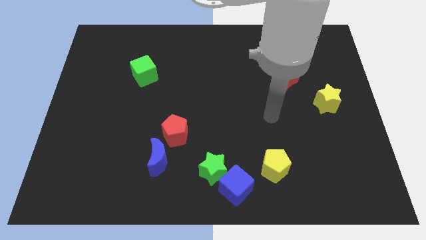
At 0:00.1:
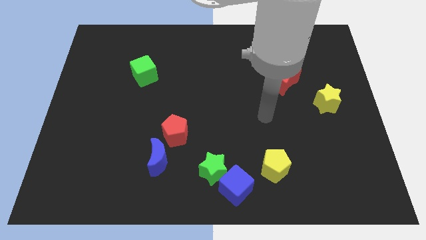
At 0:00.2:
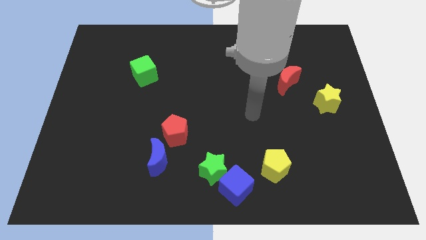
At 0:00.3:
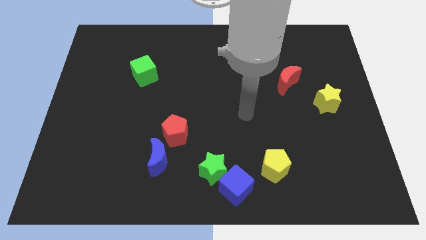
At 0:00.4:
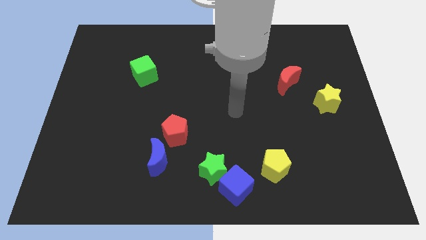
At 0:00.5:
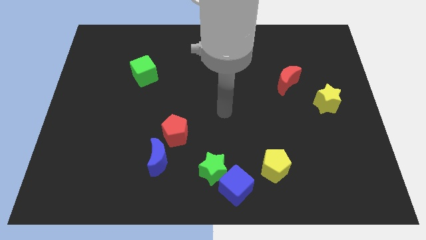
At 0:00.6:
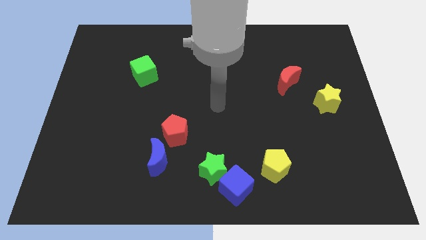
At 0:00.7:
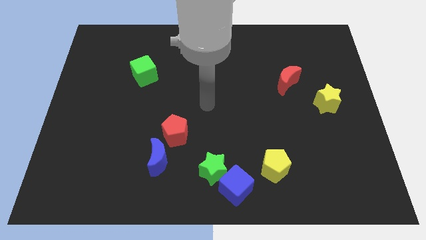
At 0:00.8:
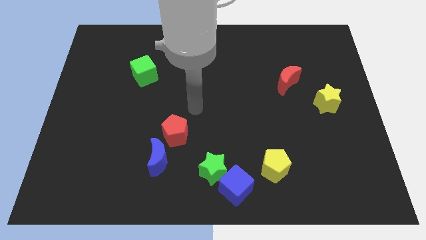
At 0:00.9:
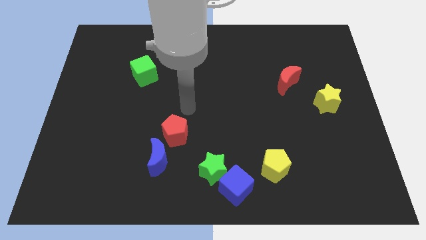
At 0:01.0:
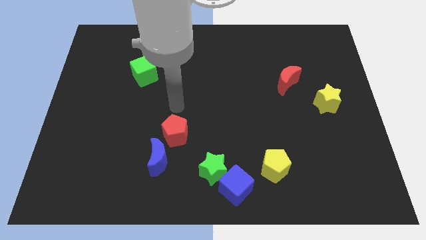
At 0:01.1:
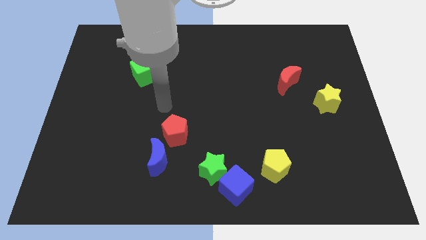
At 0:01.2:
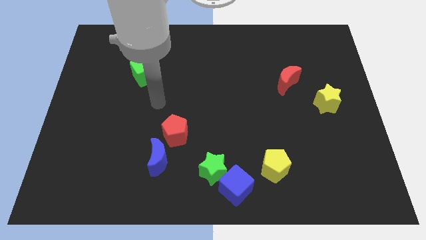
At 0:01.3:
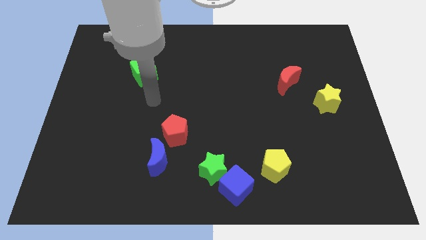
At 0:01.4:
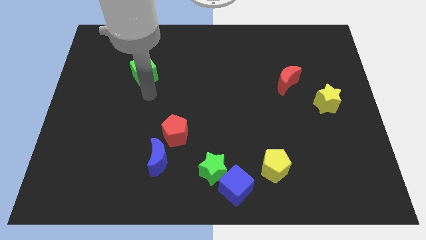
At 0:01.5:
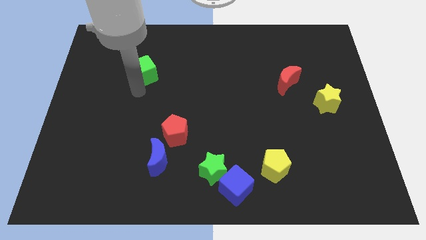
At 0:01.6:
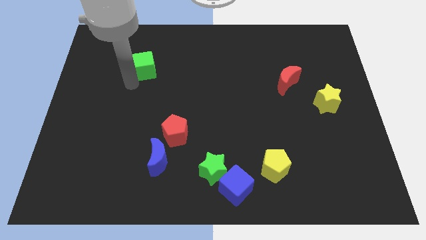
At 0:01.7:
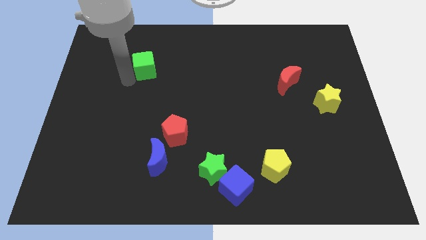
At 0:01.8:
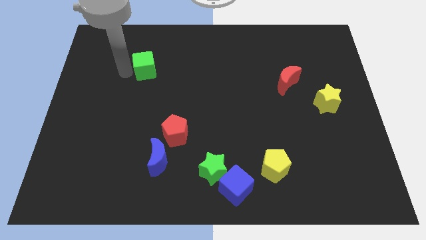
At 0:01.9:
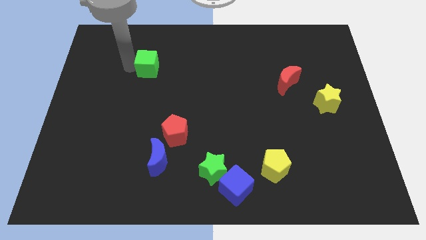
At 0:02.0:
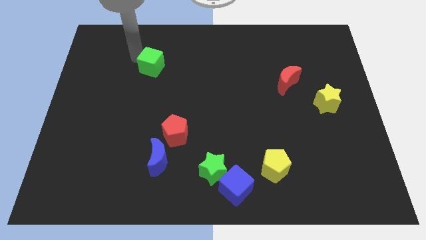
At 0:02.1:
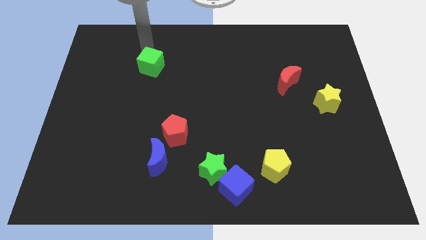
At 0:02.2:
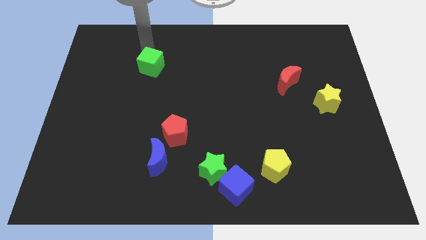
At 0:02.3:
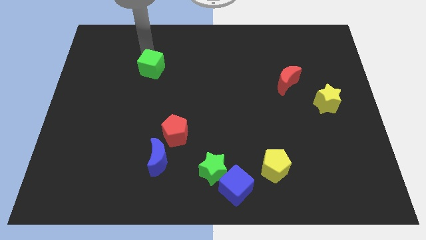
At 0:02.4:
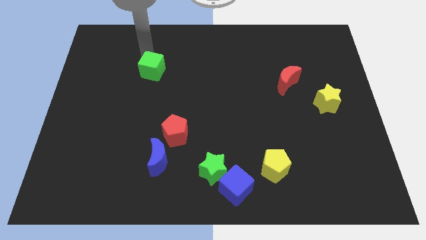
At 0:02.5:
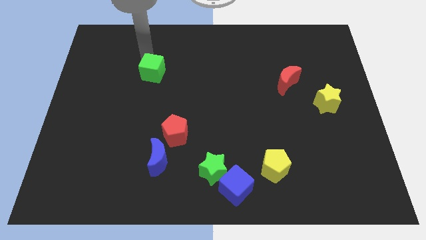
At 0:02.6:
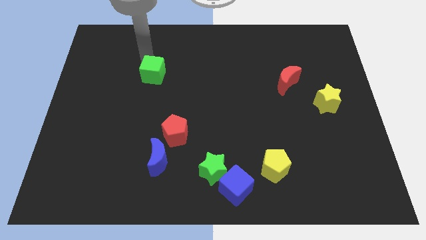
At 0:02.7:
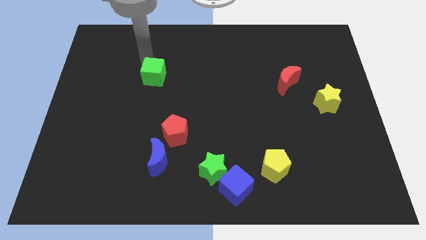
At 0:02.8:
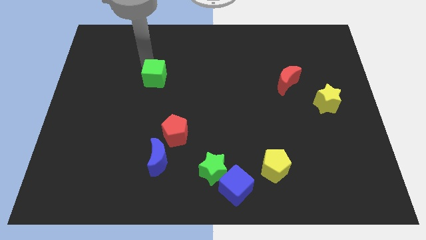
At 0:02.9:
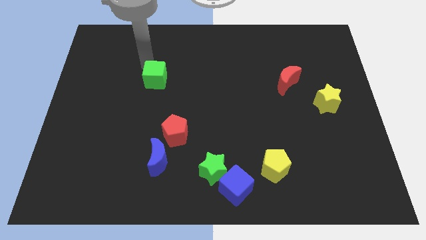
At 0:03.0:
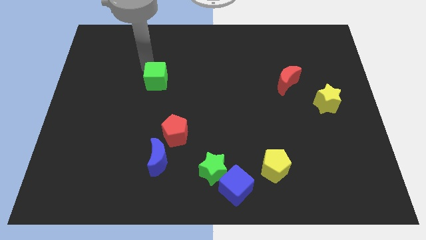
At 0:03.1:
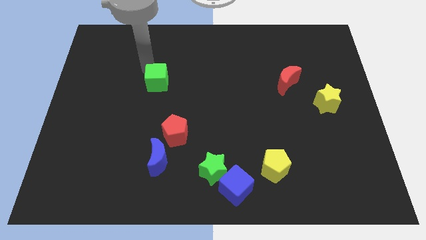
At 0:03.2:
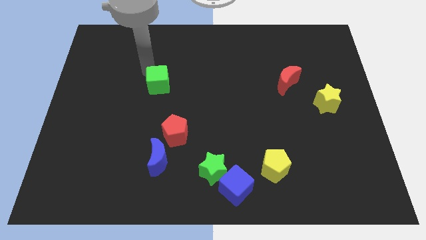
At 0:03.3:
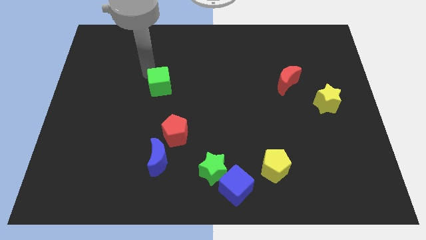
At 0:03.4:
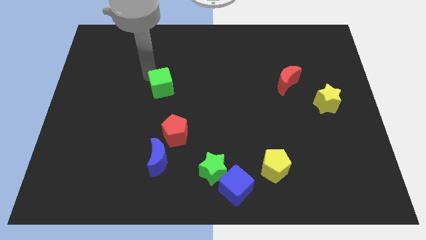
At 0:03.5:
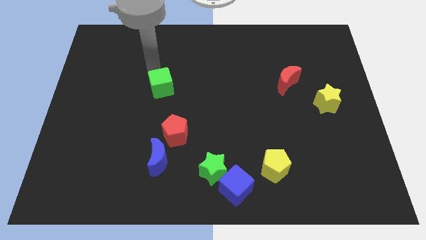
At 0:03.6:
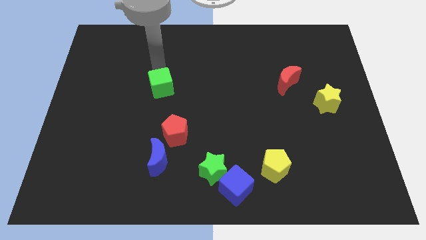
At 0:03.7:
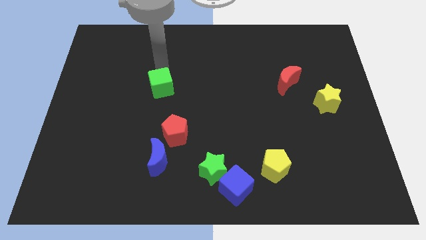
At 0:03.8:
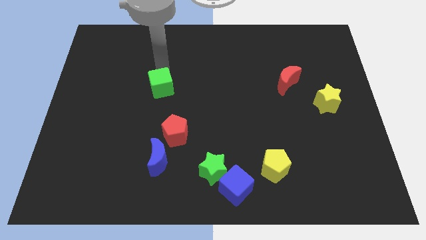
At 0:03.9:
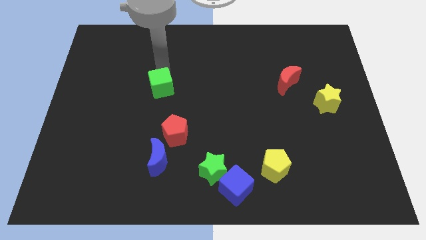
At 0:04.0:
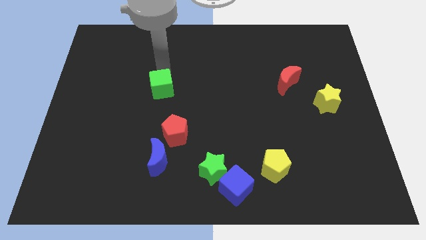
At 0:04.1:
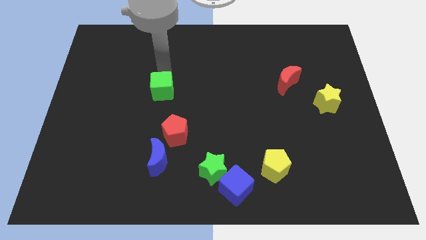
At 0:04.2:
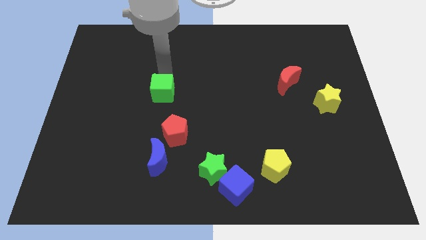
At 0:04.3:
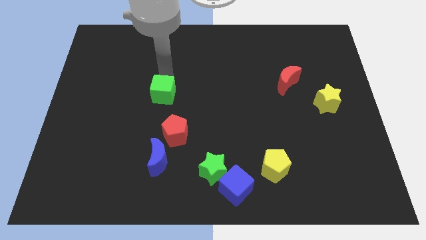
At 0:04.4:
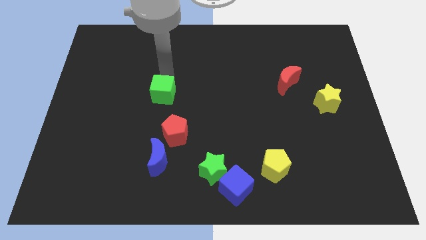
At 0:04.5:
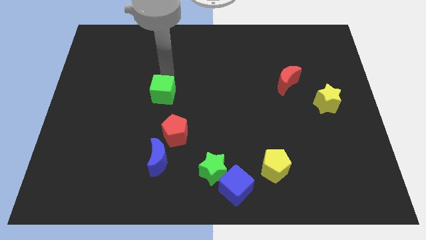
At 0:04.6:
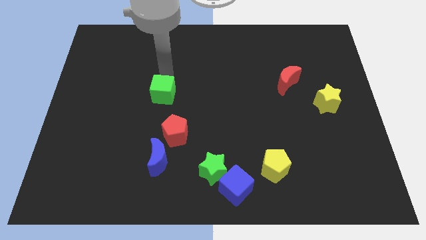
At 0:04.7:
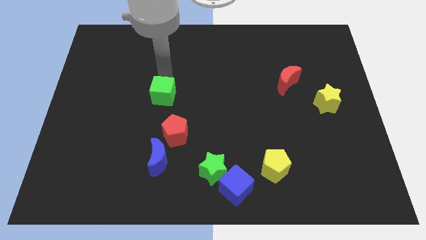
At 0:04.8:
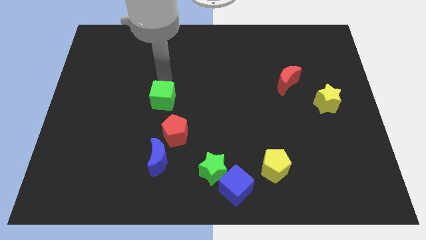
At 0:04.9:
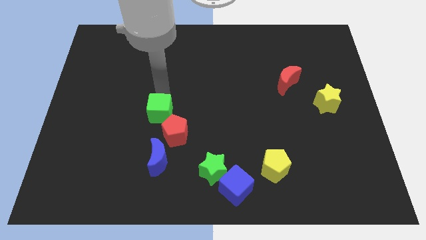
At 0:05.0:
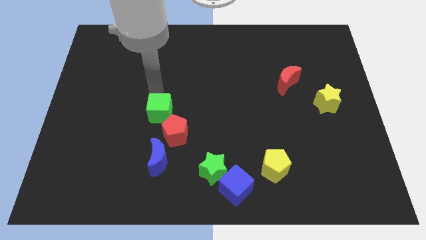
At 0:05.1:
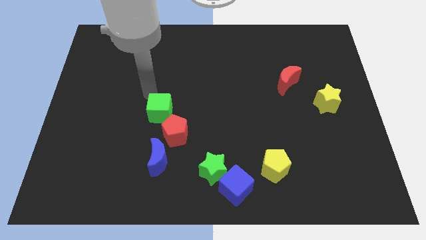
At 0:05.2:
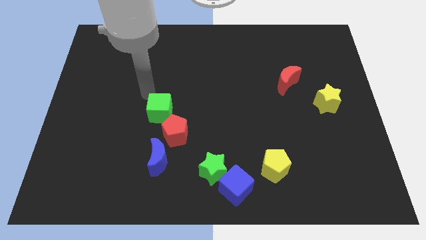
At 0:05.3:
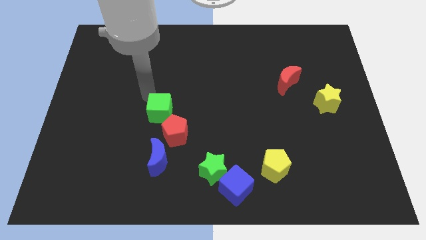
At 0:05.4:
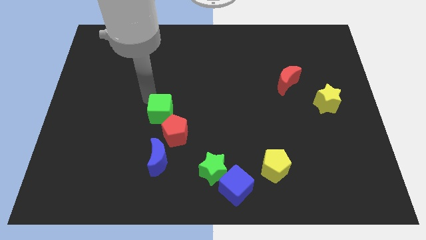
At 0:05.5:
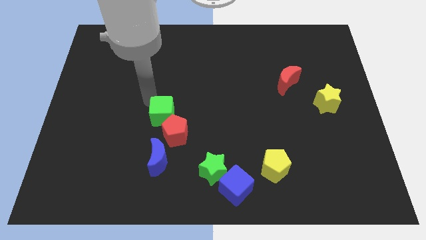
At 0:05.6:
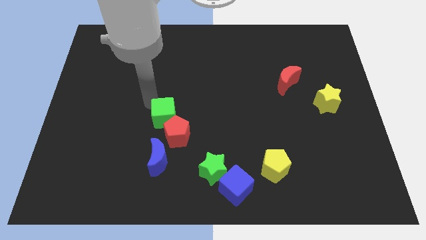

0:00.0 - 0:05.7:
slide the green cube close to the red pentagon

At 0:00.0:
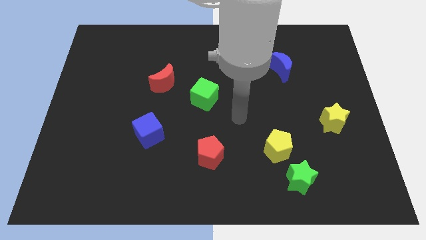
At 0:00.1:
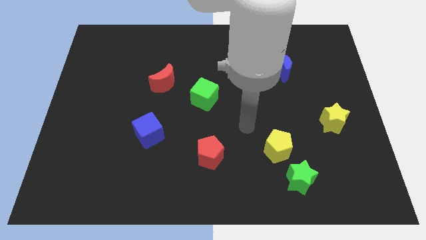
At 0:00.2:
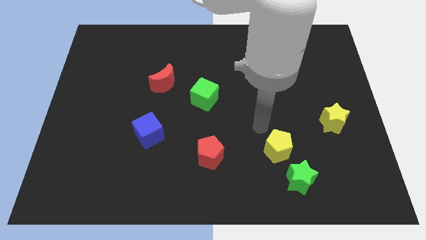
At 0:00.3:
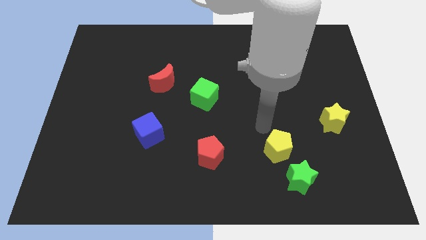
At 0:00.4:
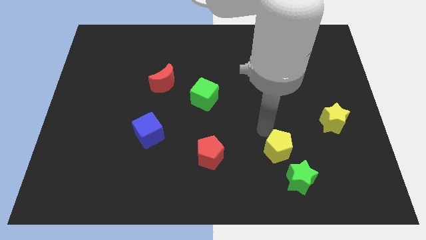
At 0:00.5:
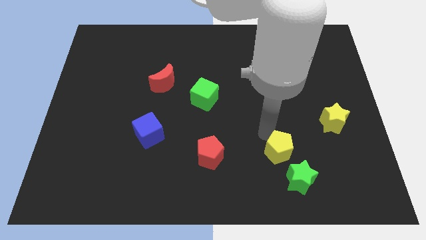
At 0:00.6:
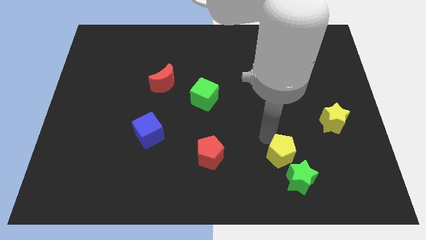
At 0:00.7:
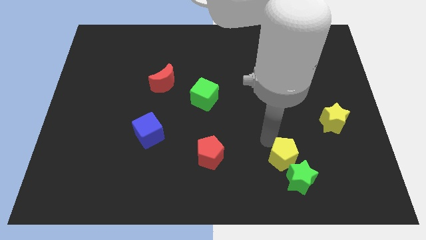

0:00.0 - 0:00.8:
move the yellow pentagon close to the green star
